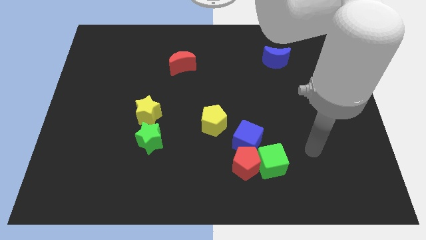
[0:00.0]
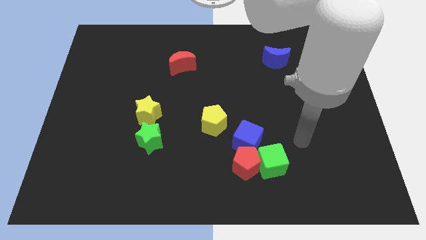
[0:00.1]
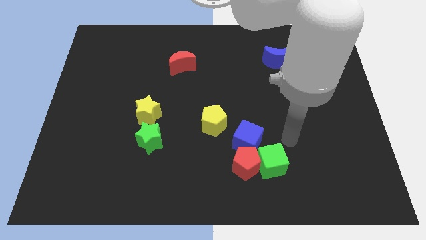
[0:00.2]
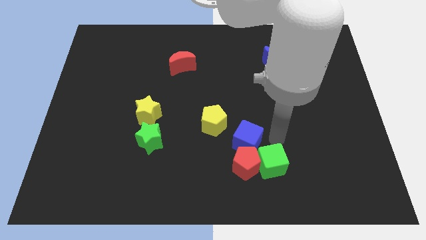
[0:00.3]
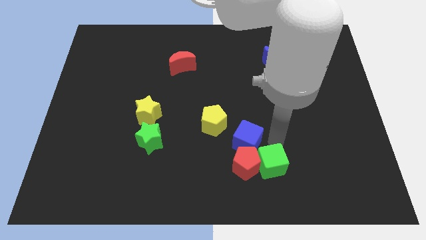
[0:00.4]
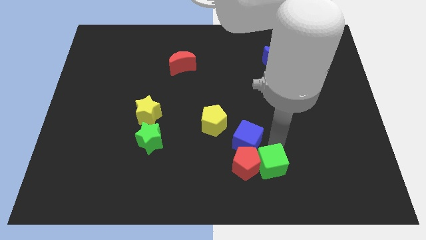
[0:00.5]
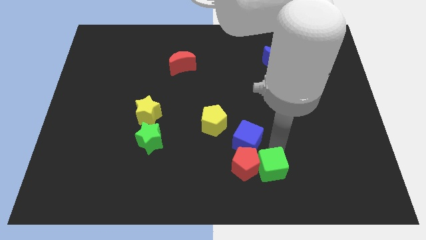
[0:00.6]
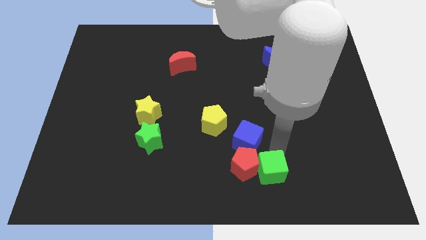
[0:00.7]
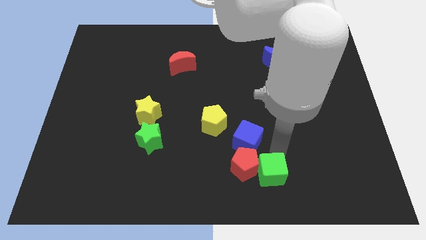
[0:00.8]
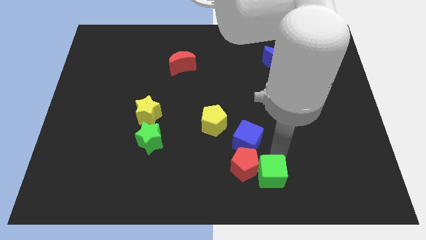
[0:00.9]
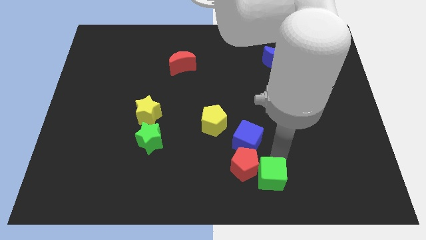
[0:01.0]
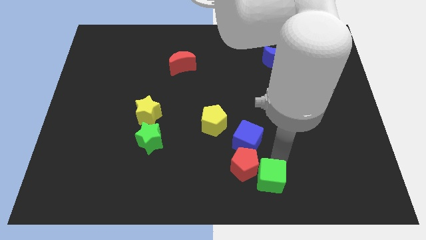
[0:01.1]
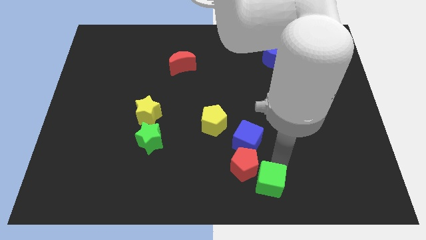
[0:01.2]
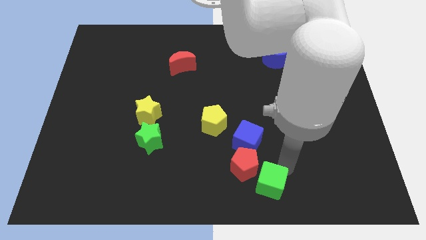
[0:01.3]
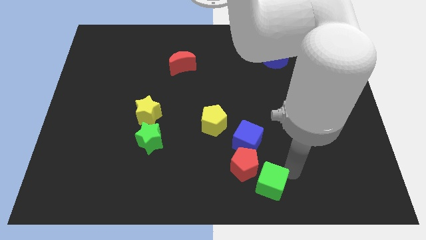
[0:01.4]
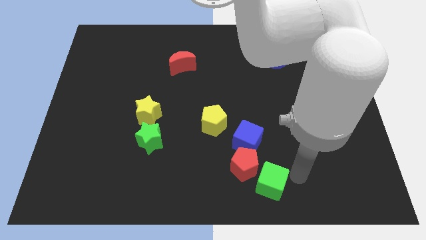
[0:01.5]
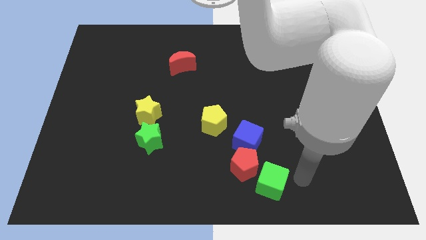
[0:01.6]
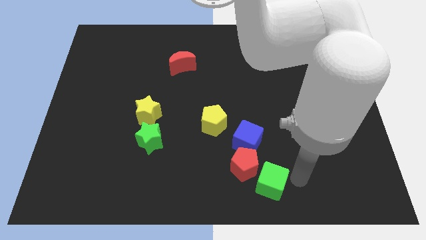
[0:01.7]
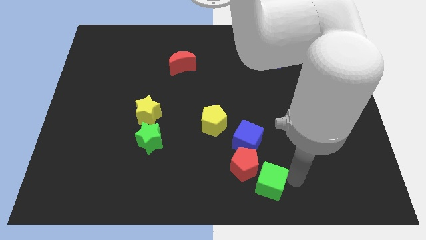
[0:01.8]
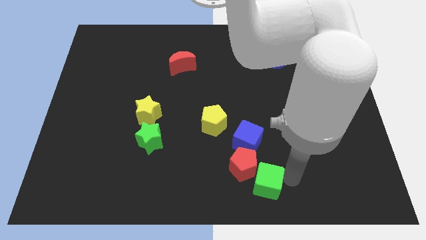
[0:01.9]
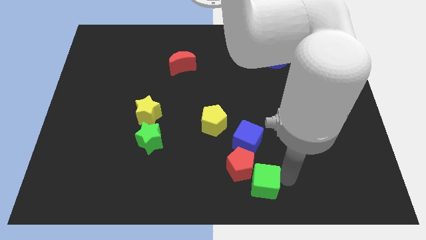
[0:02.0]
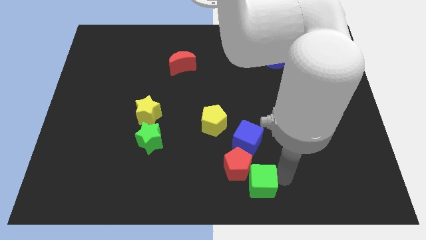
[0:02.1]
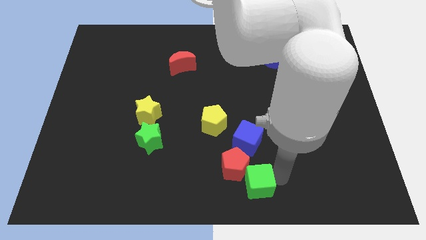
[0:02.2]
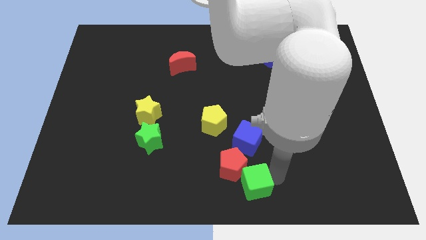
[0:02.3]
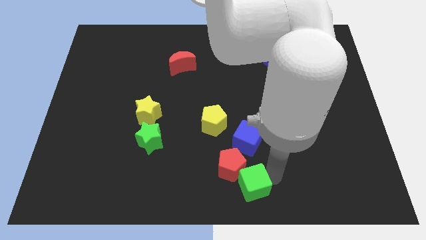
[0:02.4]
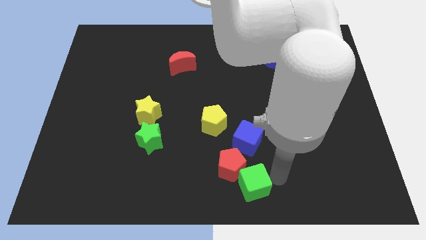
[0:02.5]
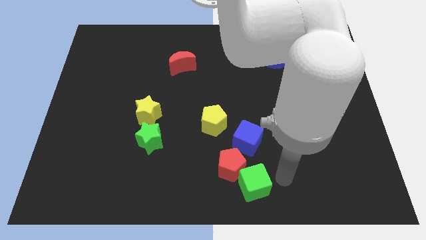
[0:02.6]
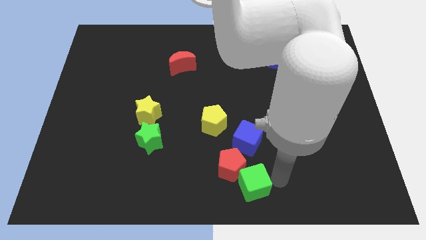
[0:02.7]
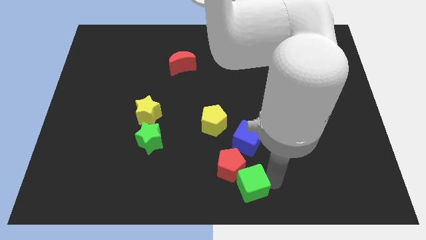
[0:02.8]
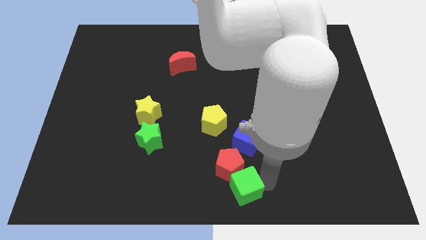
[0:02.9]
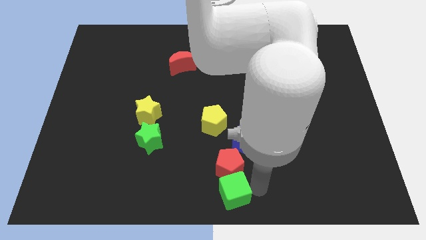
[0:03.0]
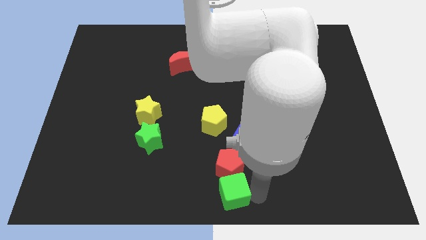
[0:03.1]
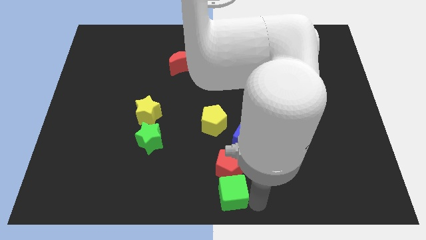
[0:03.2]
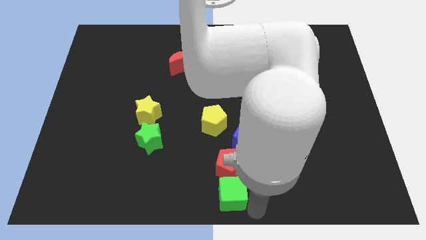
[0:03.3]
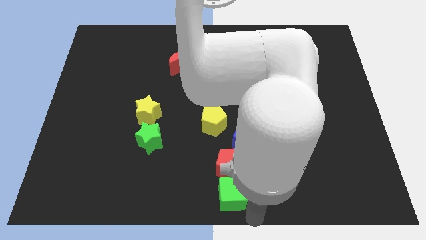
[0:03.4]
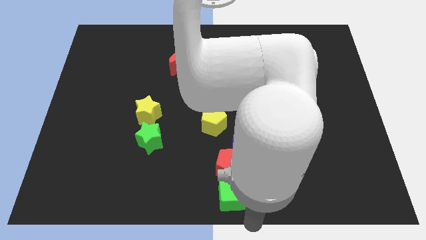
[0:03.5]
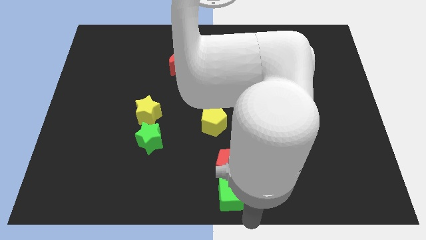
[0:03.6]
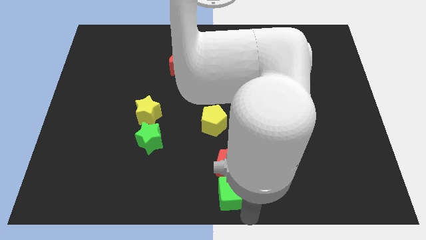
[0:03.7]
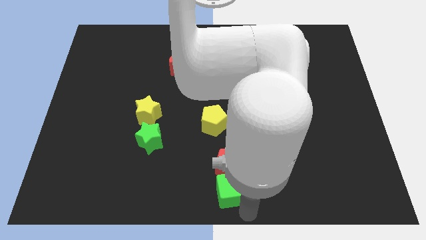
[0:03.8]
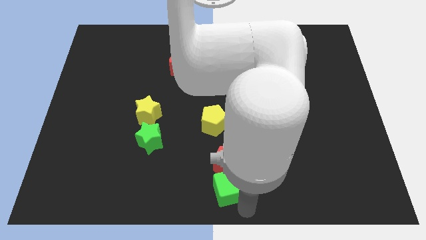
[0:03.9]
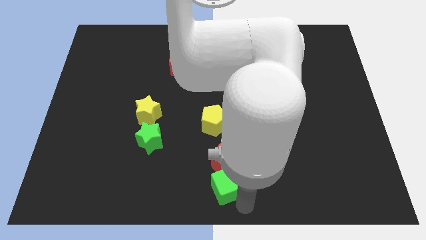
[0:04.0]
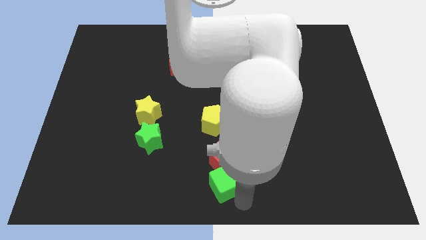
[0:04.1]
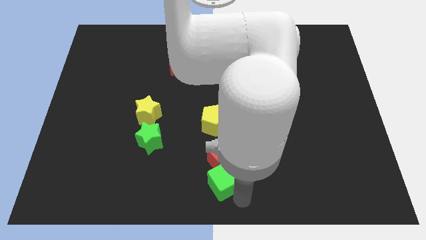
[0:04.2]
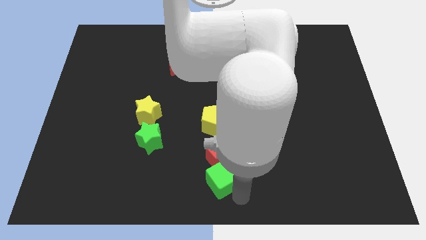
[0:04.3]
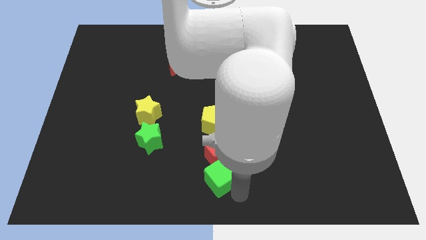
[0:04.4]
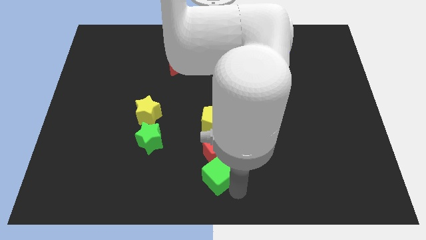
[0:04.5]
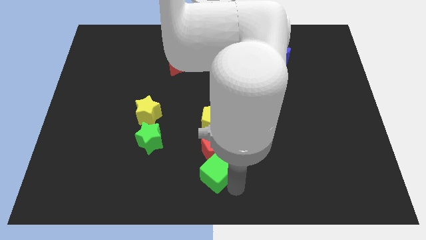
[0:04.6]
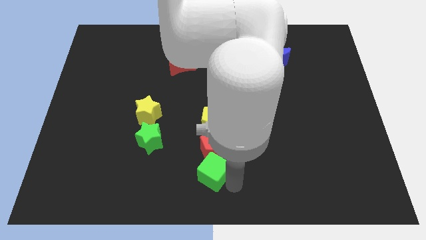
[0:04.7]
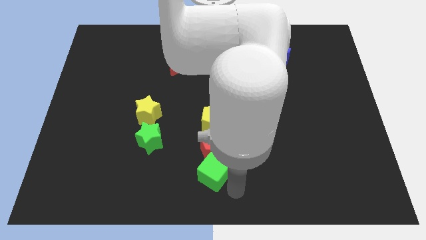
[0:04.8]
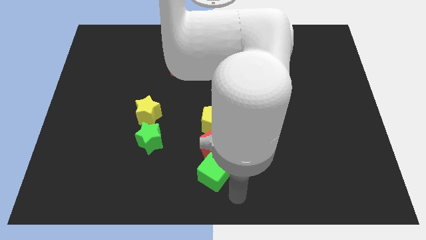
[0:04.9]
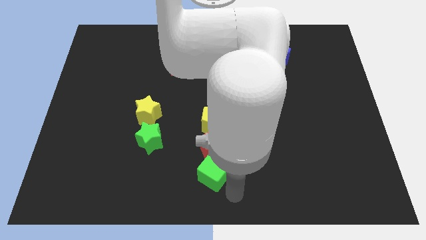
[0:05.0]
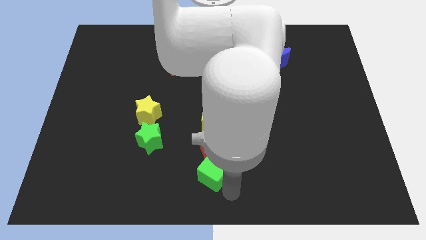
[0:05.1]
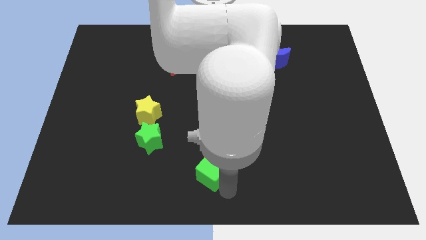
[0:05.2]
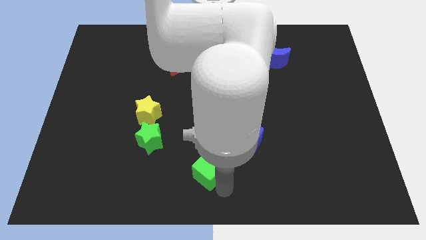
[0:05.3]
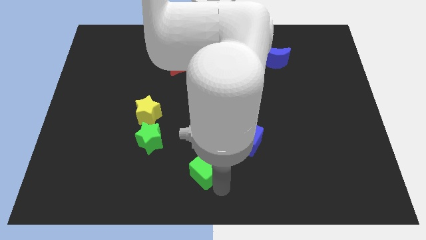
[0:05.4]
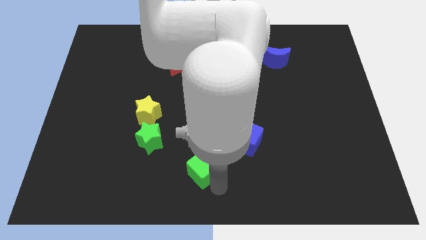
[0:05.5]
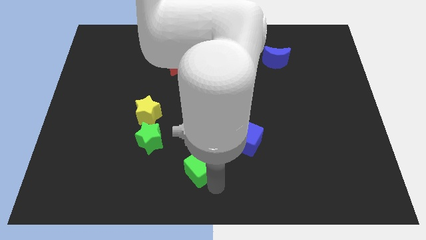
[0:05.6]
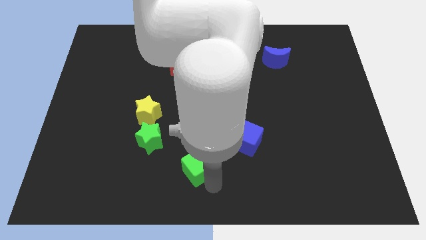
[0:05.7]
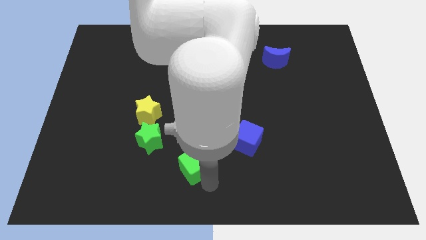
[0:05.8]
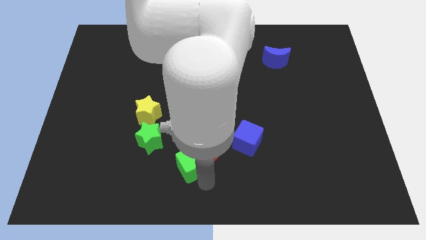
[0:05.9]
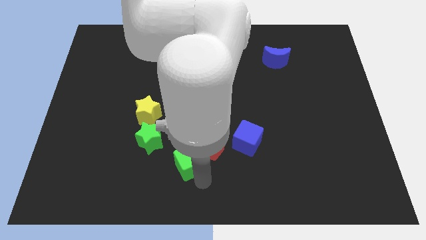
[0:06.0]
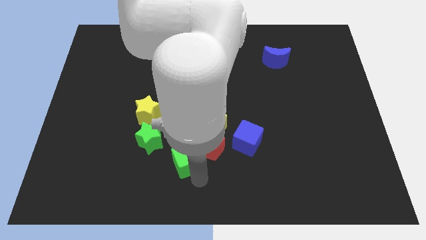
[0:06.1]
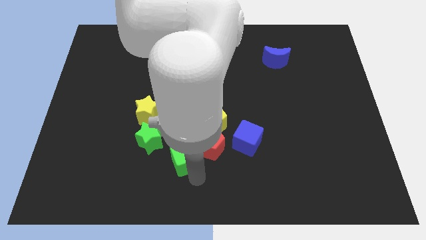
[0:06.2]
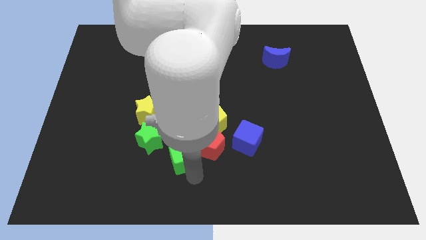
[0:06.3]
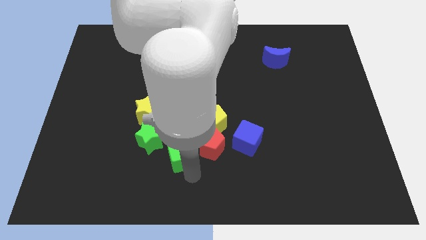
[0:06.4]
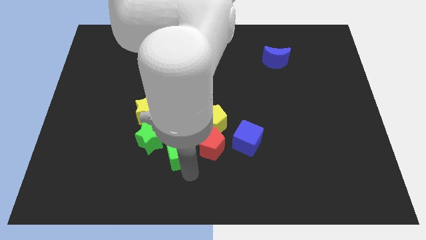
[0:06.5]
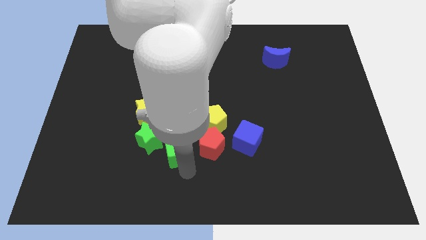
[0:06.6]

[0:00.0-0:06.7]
put the green cube to the bottom right of the yellow star

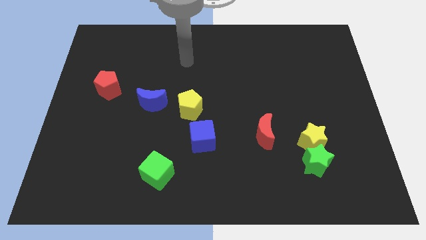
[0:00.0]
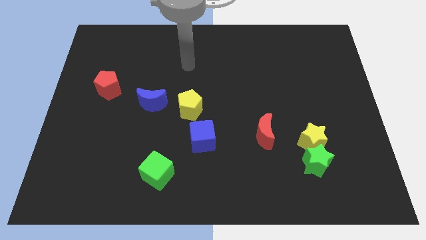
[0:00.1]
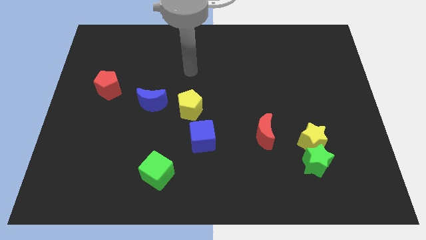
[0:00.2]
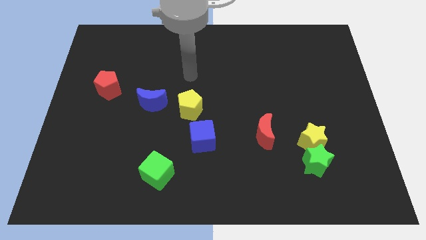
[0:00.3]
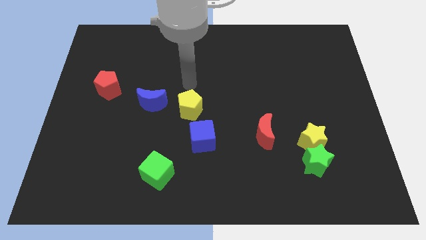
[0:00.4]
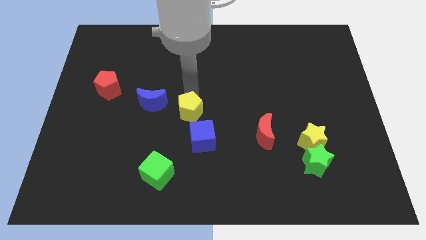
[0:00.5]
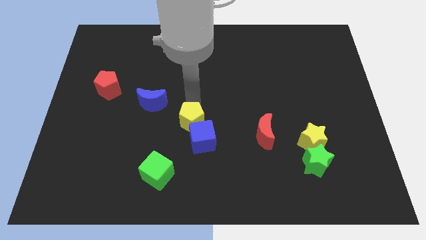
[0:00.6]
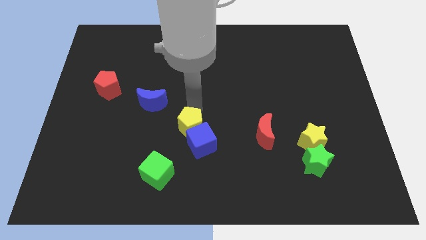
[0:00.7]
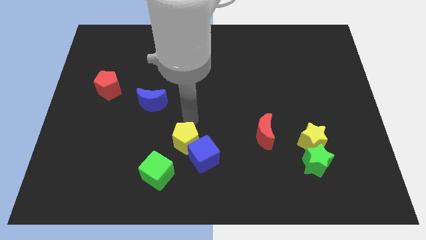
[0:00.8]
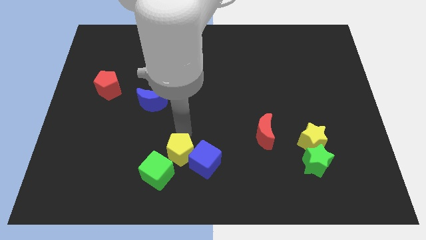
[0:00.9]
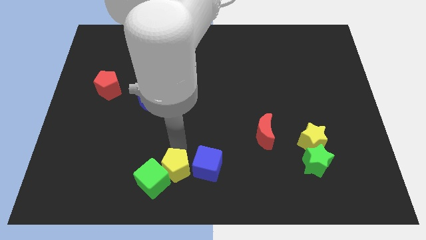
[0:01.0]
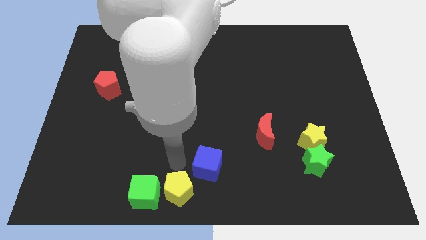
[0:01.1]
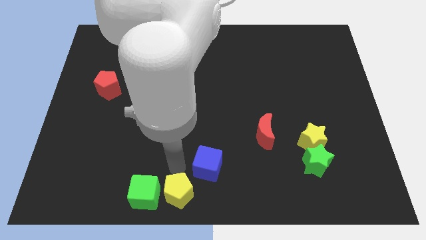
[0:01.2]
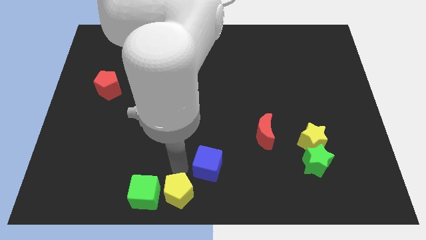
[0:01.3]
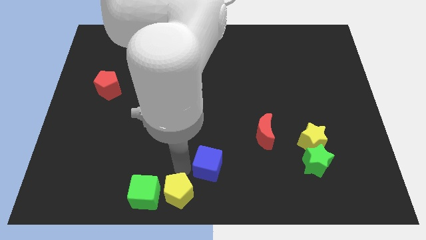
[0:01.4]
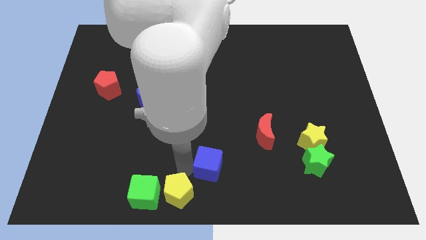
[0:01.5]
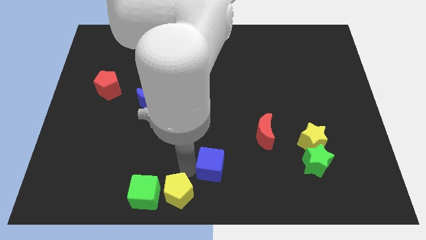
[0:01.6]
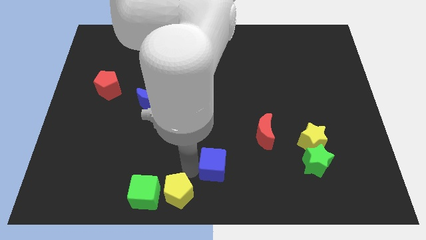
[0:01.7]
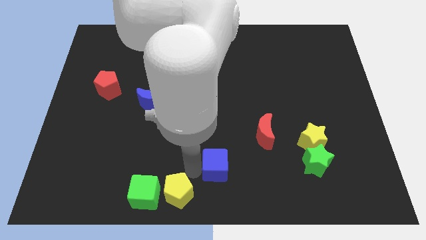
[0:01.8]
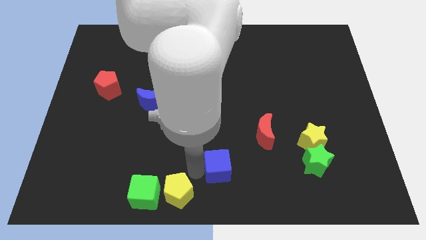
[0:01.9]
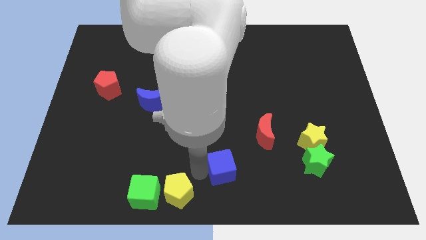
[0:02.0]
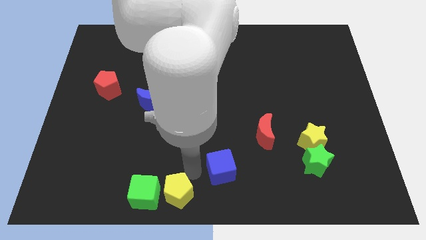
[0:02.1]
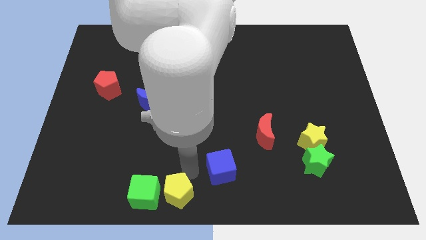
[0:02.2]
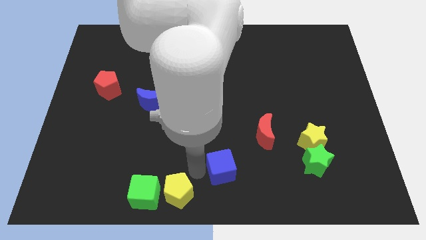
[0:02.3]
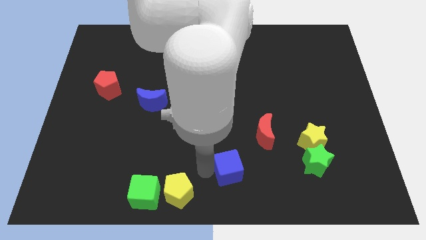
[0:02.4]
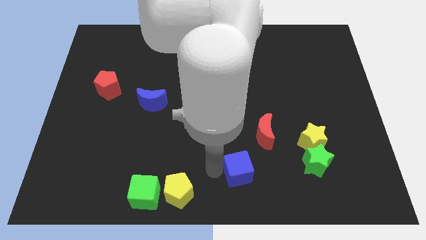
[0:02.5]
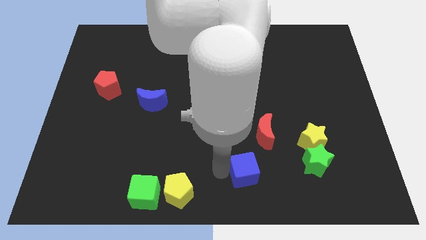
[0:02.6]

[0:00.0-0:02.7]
move the blue cube to the bottom side of the red moon
